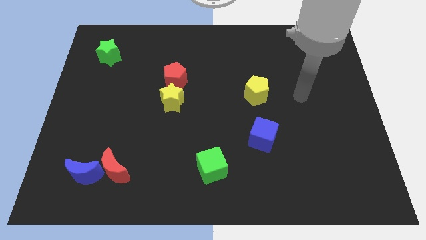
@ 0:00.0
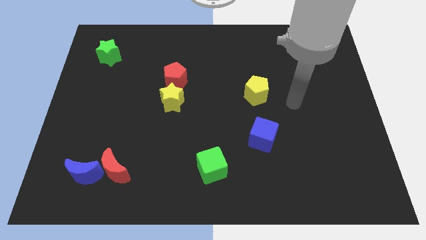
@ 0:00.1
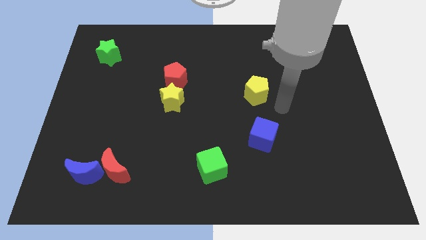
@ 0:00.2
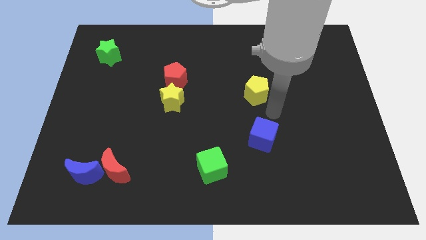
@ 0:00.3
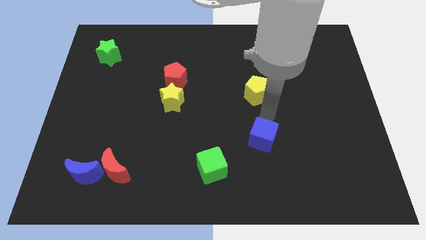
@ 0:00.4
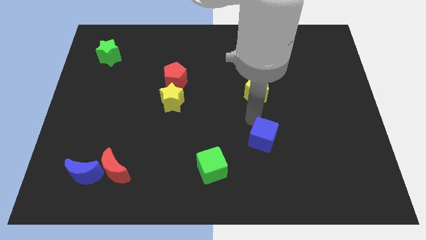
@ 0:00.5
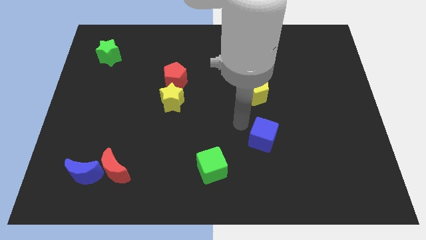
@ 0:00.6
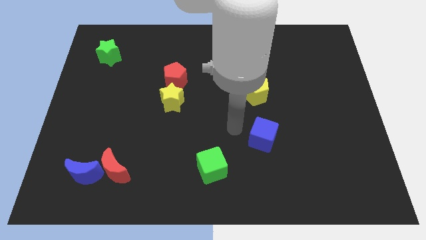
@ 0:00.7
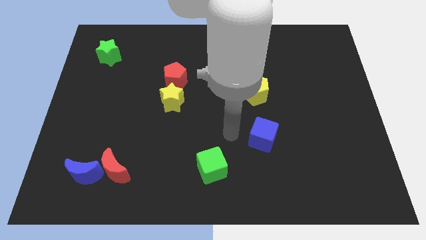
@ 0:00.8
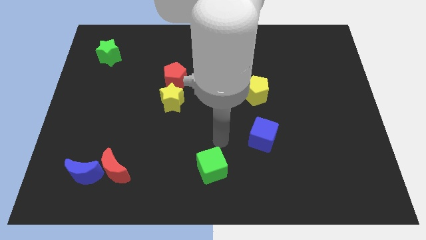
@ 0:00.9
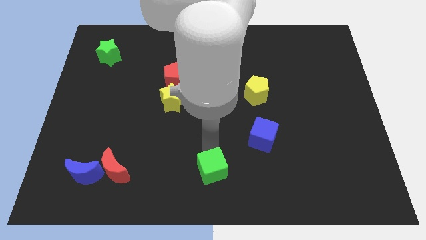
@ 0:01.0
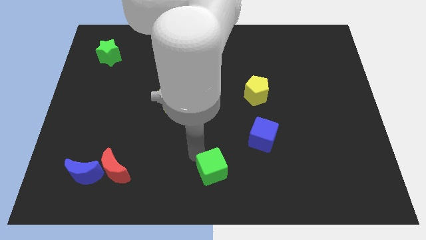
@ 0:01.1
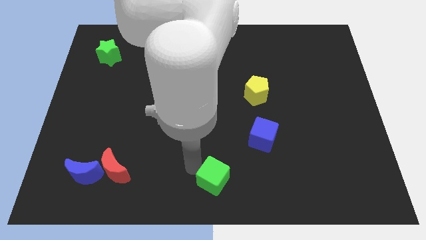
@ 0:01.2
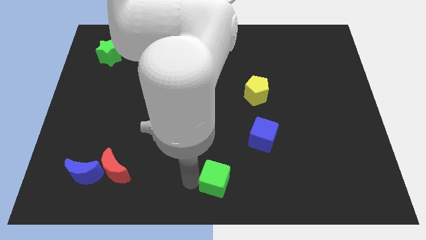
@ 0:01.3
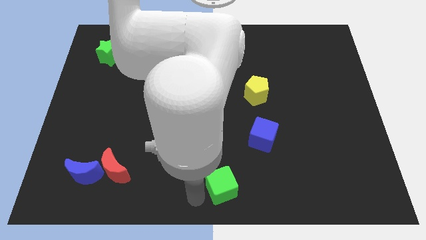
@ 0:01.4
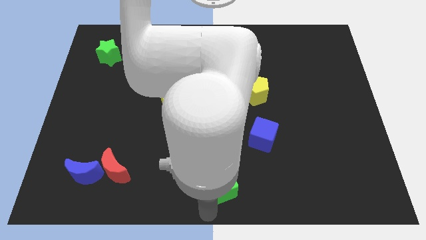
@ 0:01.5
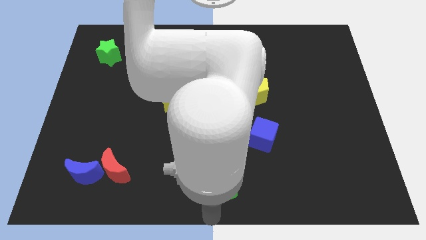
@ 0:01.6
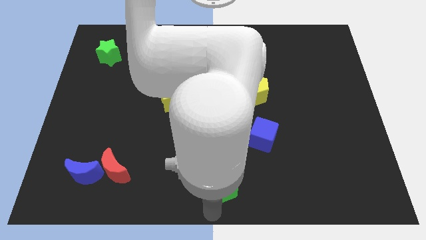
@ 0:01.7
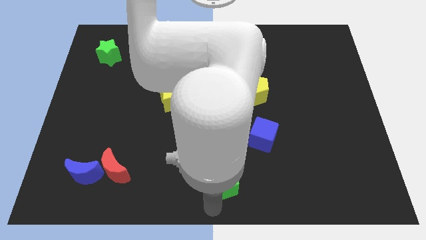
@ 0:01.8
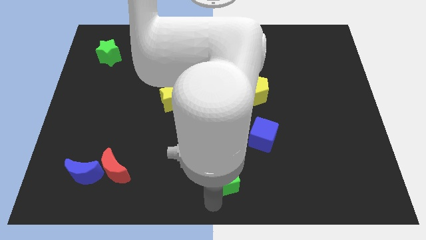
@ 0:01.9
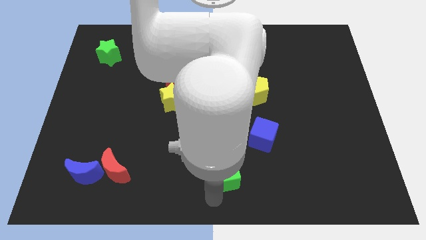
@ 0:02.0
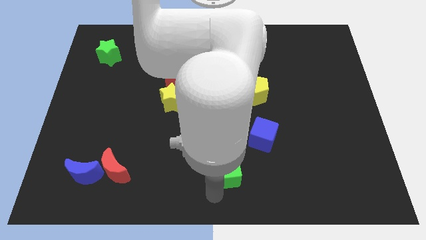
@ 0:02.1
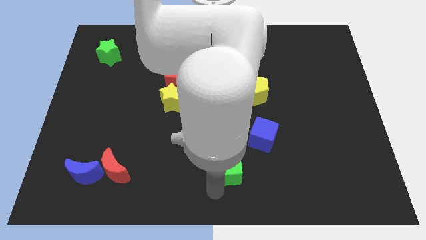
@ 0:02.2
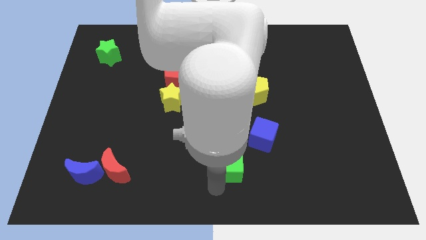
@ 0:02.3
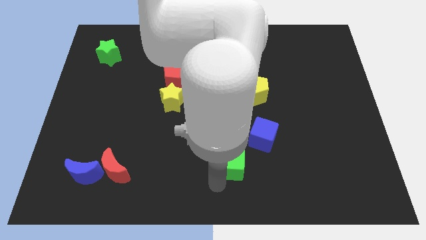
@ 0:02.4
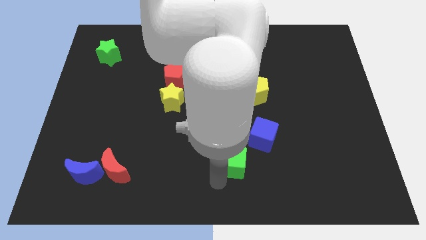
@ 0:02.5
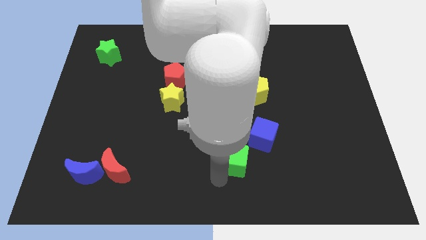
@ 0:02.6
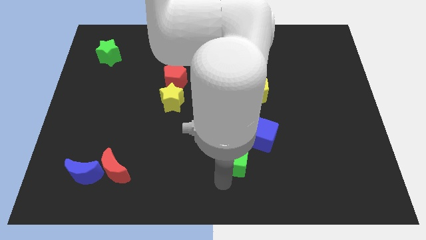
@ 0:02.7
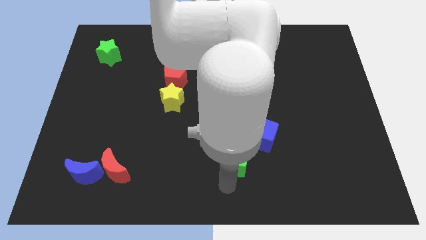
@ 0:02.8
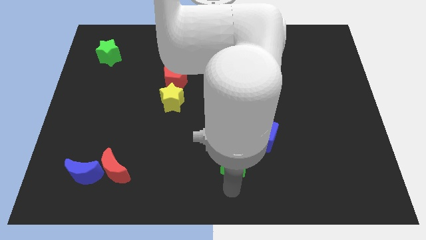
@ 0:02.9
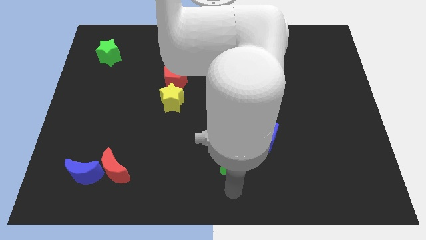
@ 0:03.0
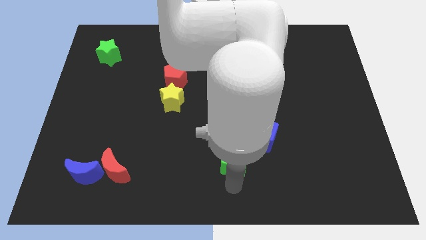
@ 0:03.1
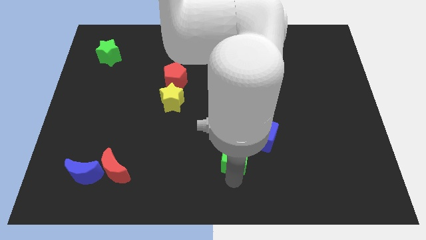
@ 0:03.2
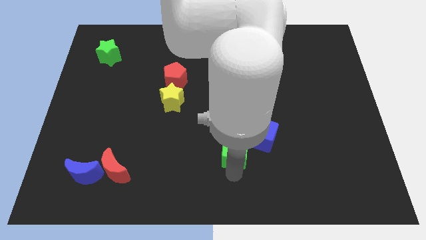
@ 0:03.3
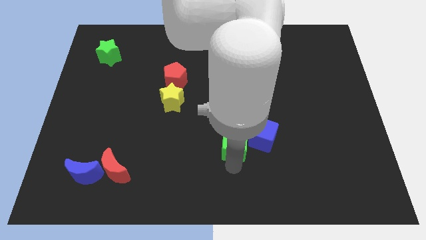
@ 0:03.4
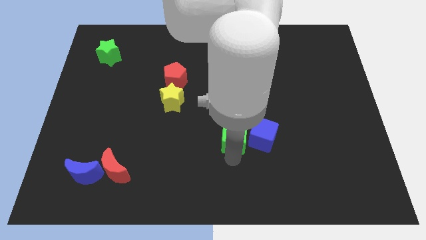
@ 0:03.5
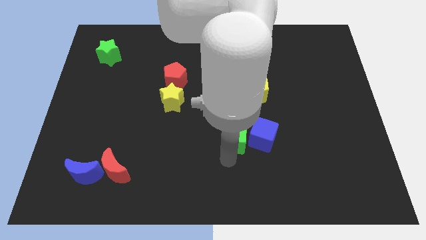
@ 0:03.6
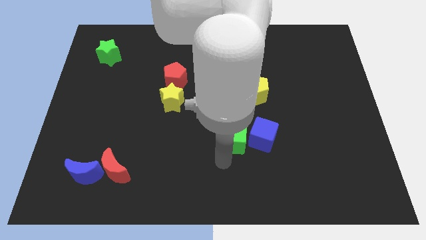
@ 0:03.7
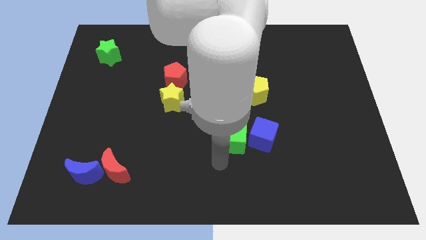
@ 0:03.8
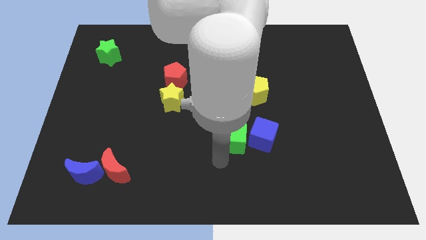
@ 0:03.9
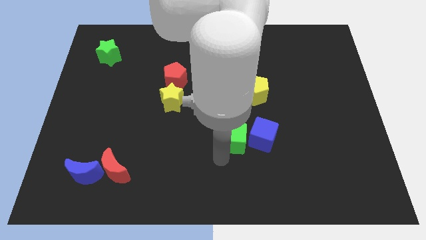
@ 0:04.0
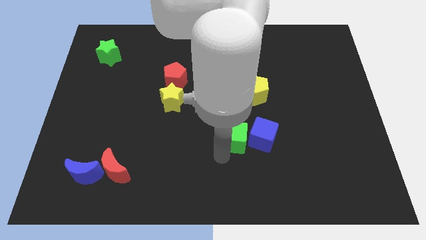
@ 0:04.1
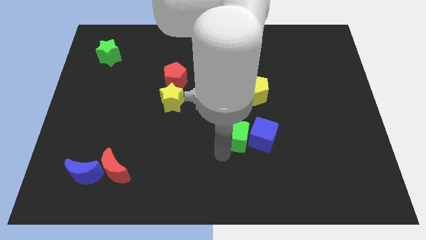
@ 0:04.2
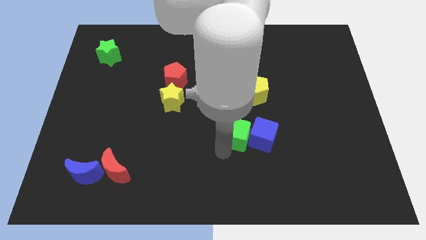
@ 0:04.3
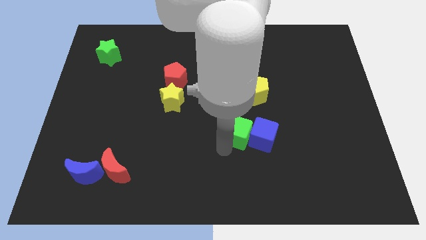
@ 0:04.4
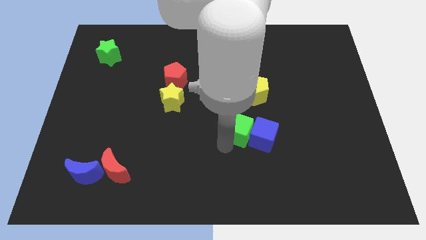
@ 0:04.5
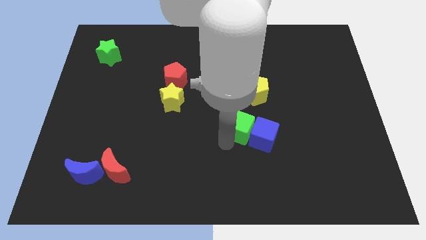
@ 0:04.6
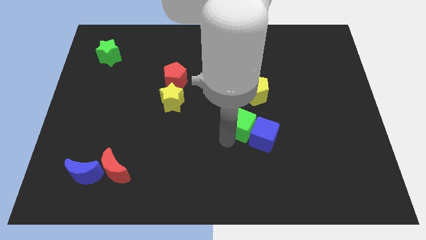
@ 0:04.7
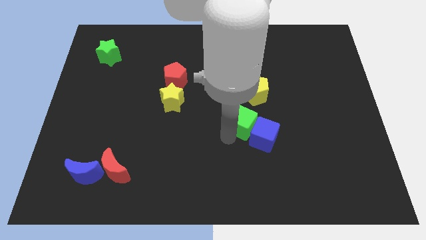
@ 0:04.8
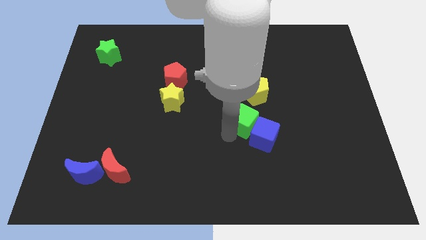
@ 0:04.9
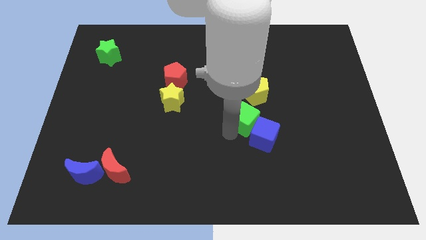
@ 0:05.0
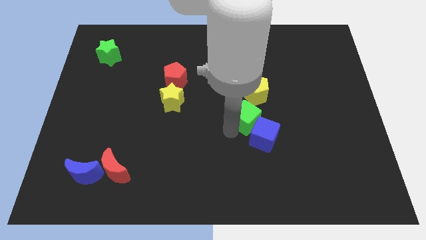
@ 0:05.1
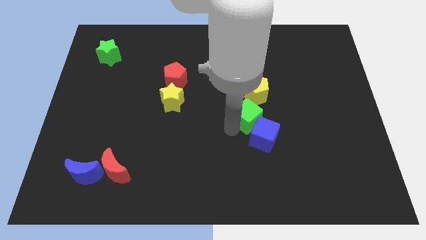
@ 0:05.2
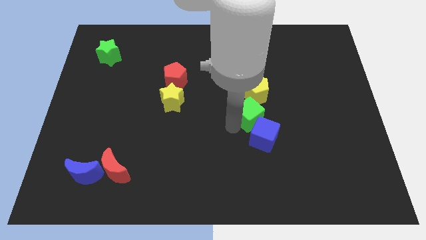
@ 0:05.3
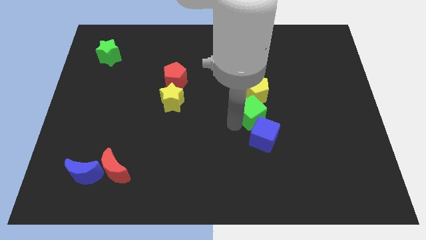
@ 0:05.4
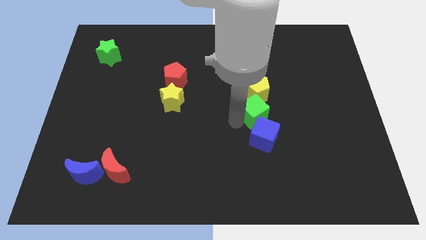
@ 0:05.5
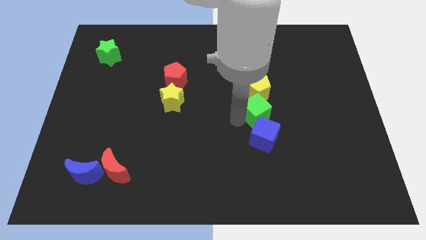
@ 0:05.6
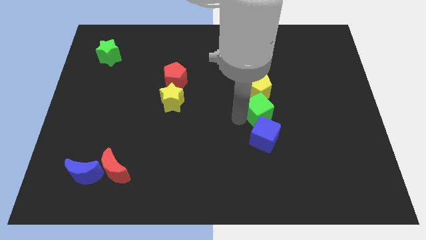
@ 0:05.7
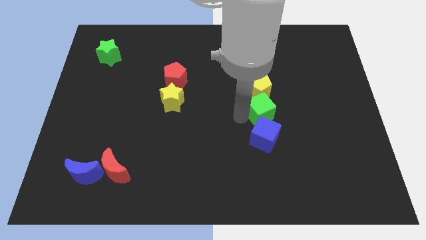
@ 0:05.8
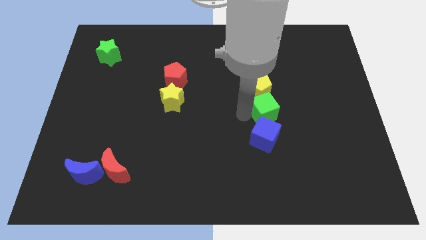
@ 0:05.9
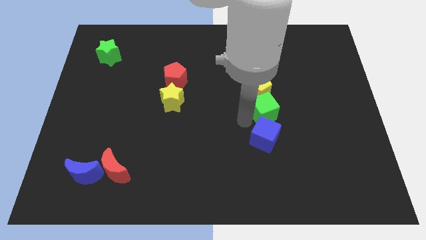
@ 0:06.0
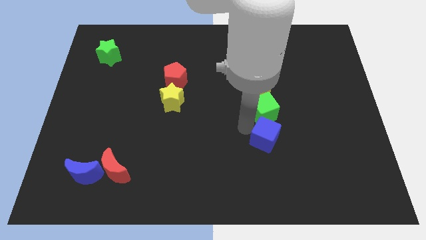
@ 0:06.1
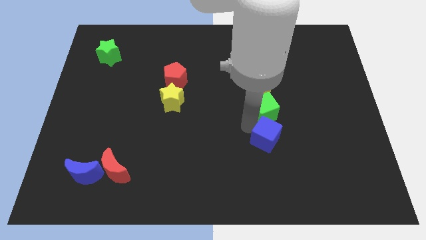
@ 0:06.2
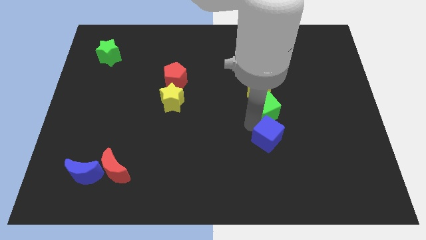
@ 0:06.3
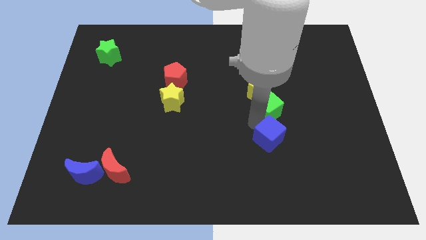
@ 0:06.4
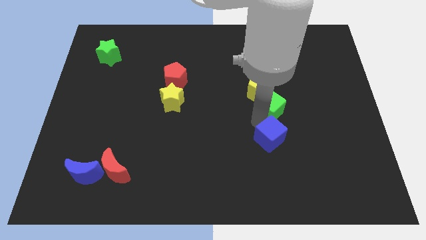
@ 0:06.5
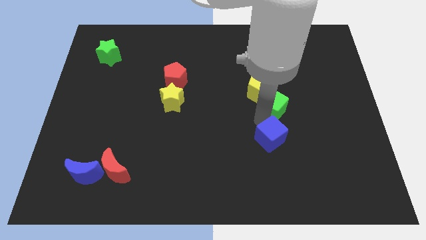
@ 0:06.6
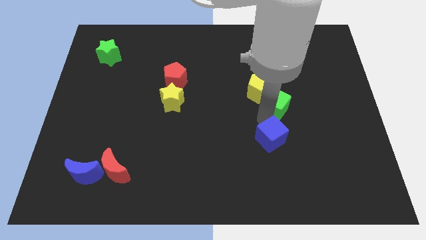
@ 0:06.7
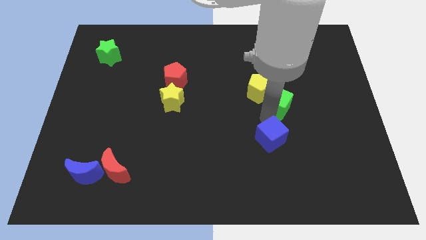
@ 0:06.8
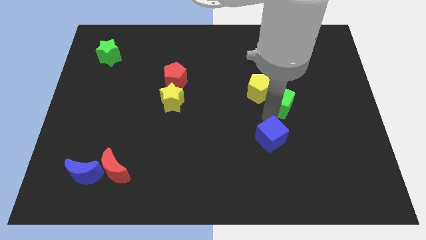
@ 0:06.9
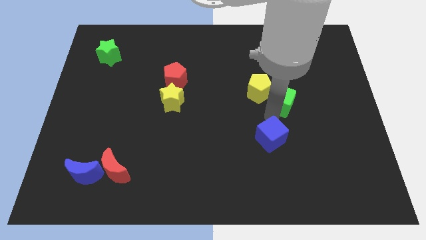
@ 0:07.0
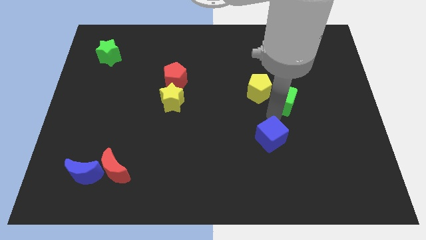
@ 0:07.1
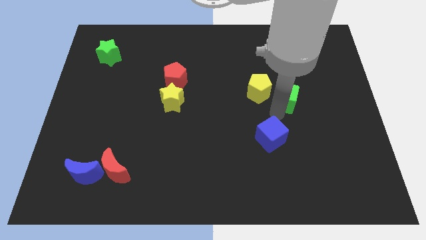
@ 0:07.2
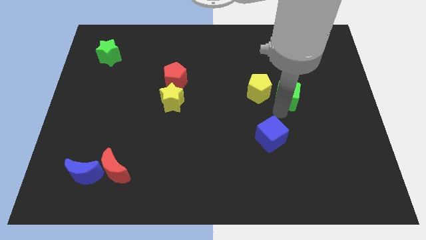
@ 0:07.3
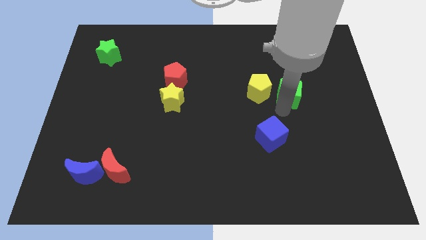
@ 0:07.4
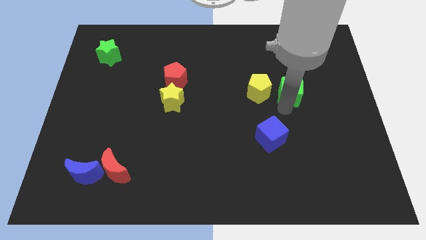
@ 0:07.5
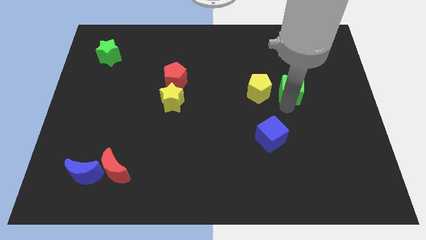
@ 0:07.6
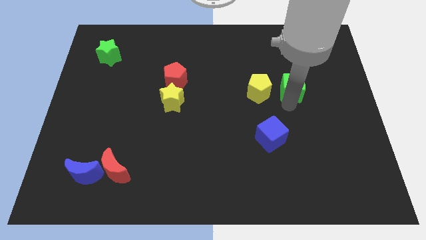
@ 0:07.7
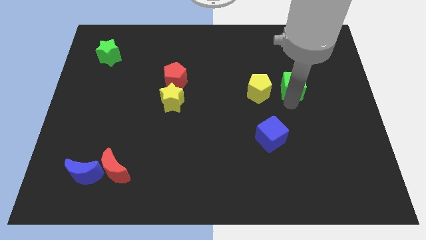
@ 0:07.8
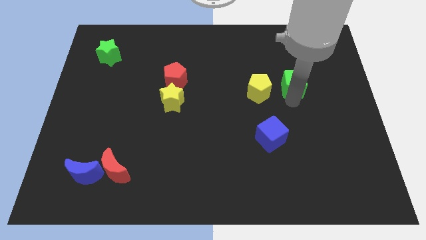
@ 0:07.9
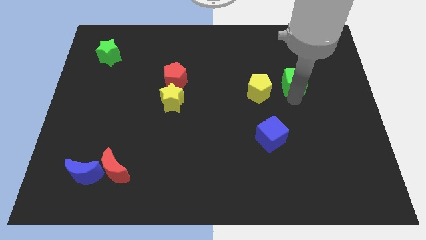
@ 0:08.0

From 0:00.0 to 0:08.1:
slide the green cube to the top right side of the yellow pentagon
